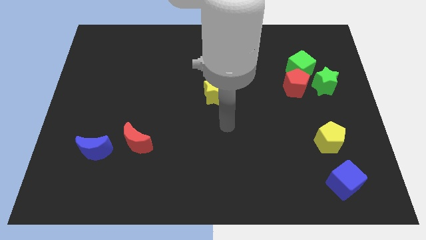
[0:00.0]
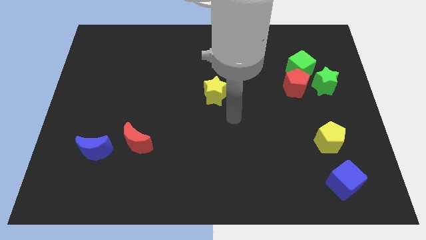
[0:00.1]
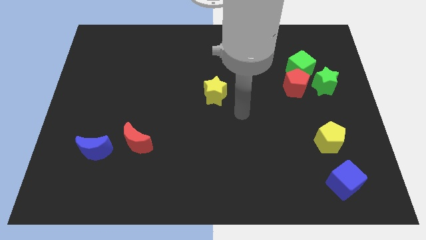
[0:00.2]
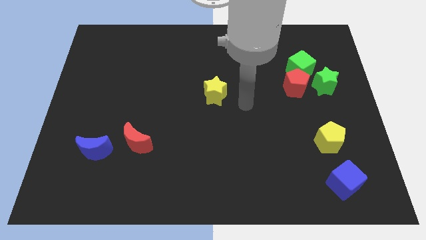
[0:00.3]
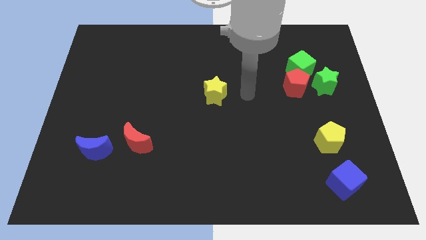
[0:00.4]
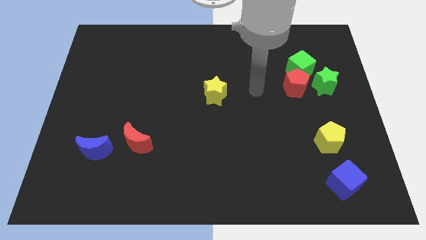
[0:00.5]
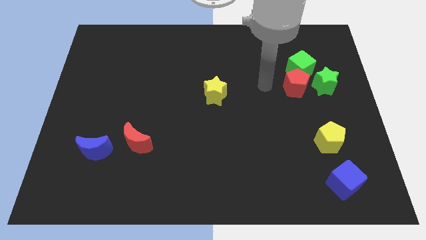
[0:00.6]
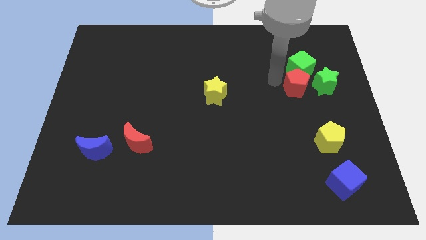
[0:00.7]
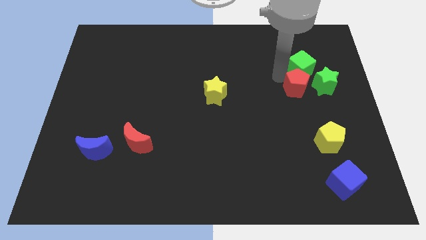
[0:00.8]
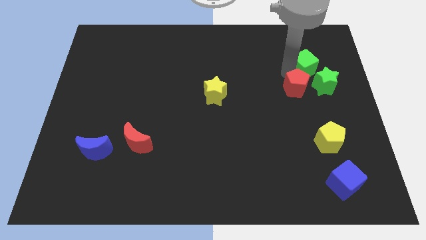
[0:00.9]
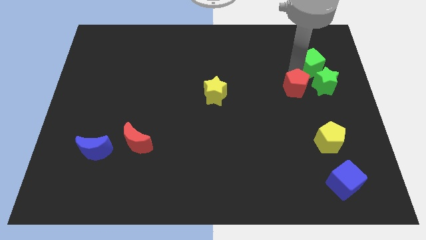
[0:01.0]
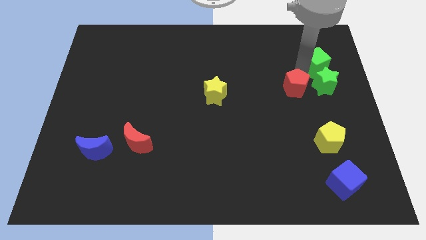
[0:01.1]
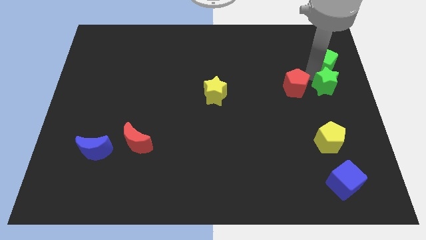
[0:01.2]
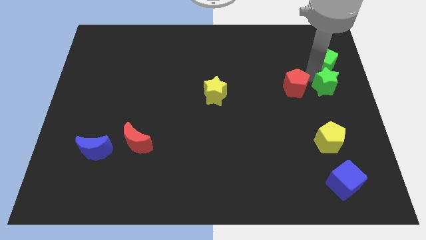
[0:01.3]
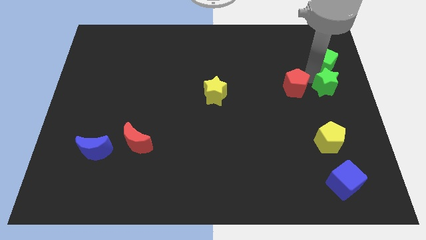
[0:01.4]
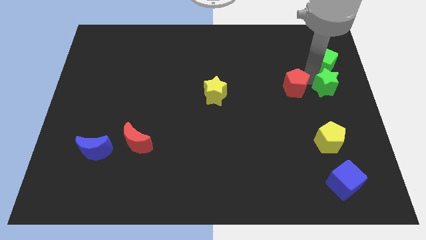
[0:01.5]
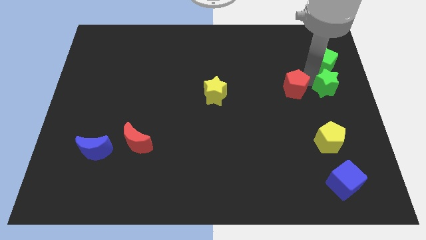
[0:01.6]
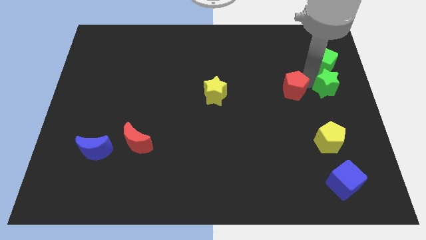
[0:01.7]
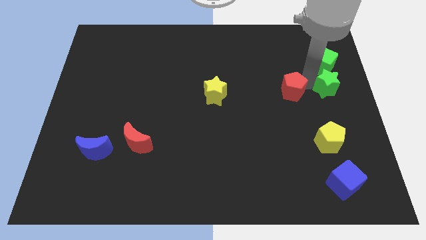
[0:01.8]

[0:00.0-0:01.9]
move the red pentagon away from the green cube and green star

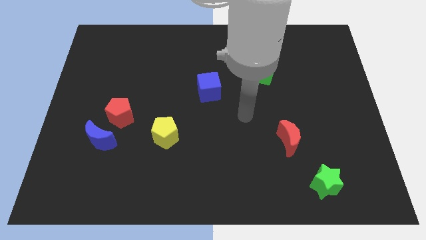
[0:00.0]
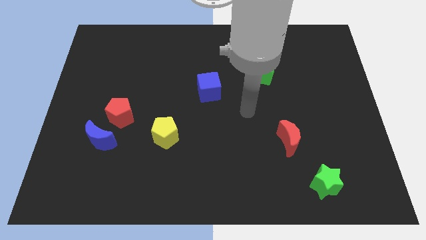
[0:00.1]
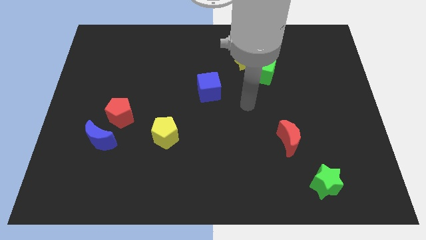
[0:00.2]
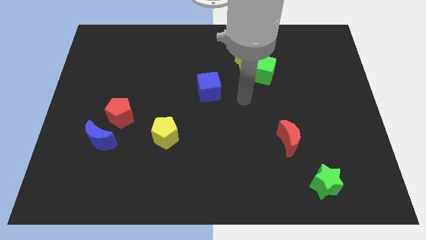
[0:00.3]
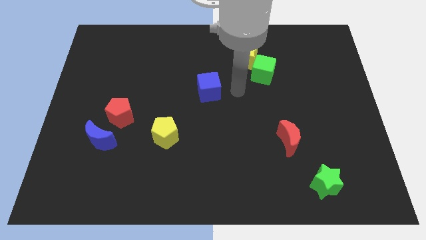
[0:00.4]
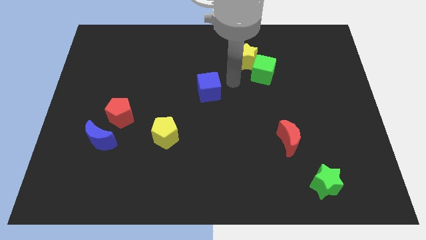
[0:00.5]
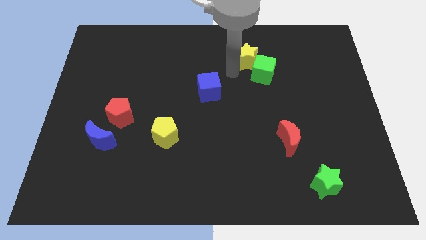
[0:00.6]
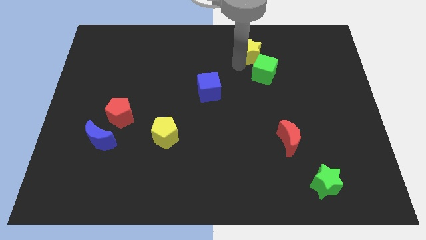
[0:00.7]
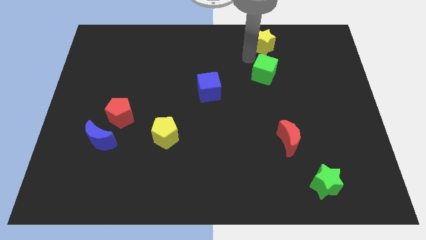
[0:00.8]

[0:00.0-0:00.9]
move the green cube away from the yellow star

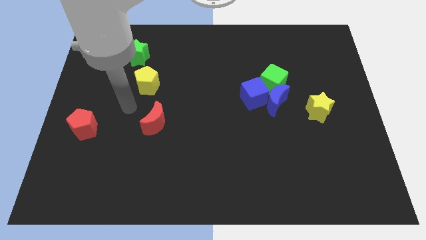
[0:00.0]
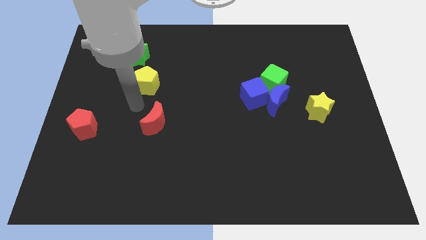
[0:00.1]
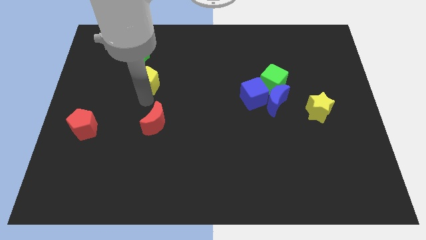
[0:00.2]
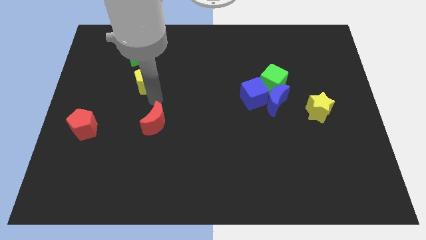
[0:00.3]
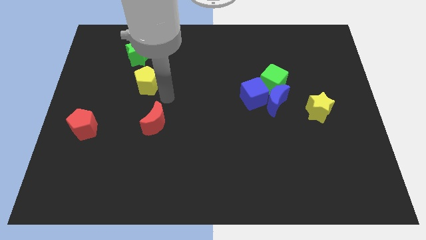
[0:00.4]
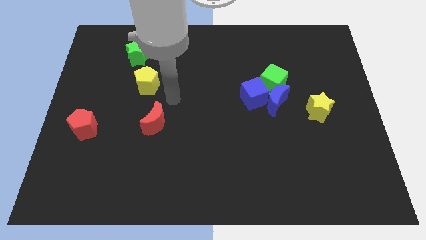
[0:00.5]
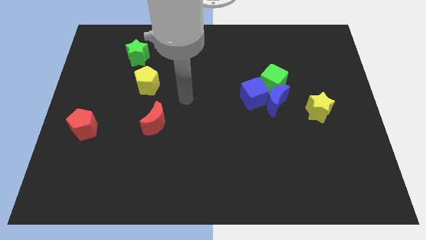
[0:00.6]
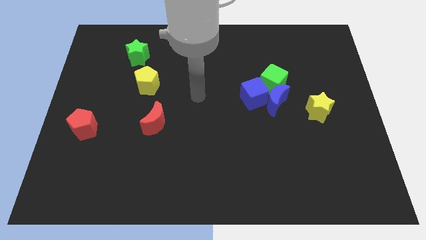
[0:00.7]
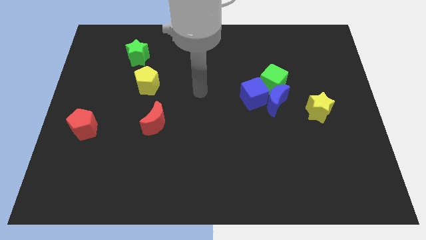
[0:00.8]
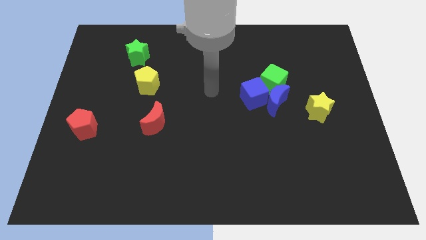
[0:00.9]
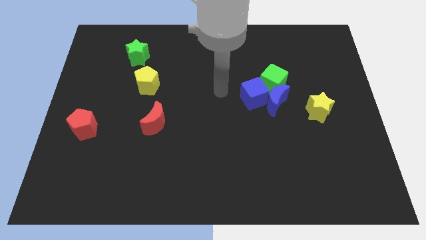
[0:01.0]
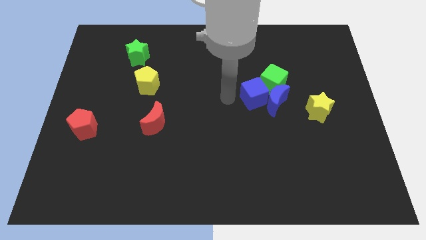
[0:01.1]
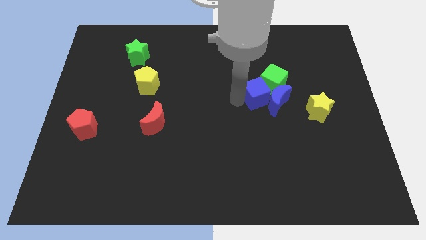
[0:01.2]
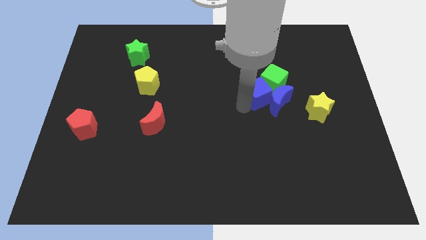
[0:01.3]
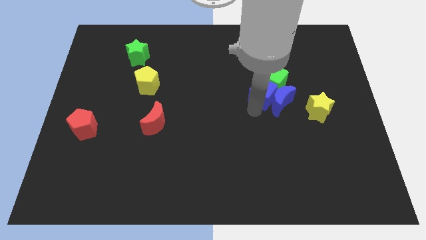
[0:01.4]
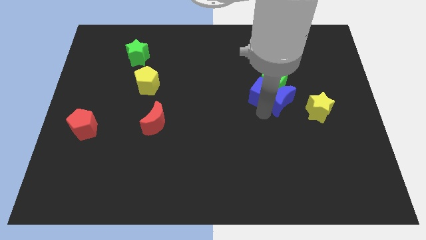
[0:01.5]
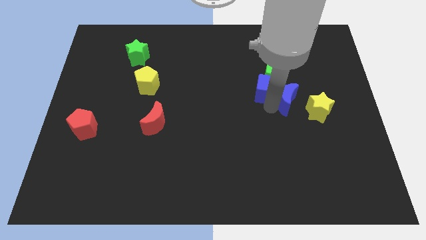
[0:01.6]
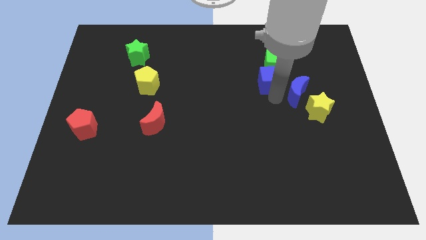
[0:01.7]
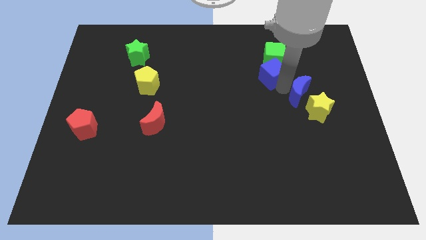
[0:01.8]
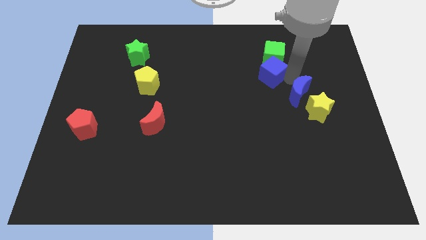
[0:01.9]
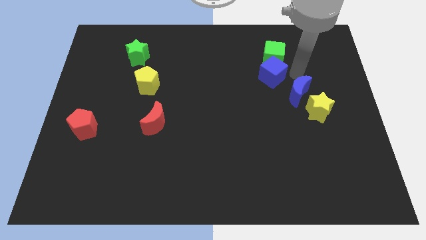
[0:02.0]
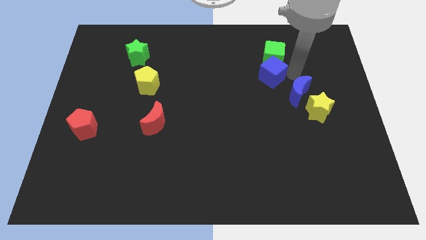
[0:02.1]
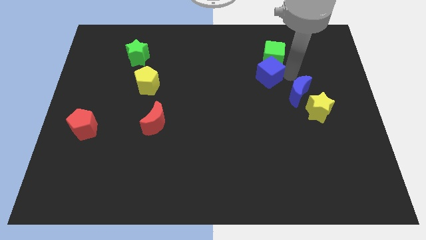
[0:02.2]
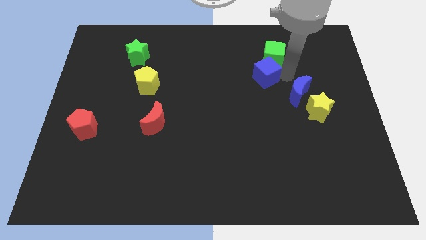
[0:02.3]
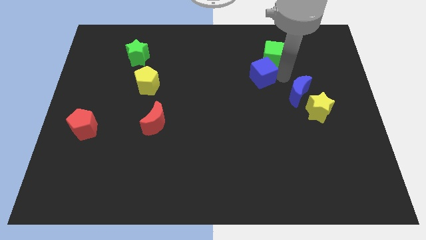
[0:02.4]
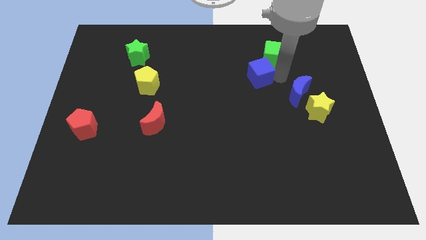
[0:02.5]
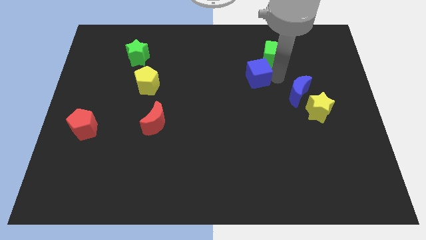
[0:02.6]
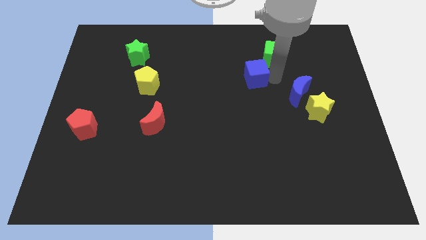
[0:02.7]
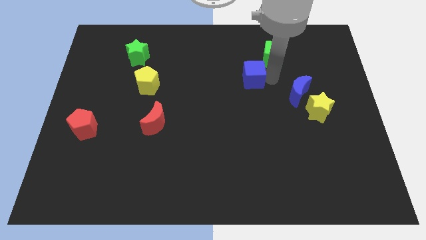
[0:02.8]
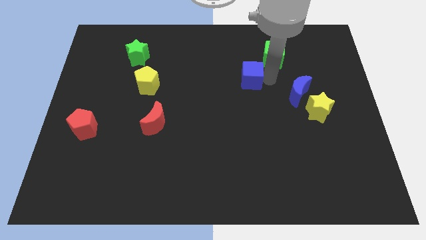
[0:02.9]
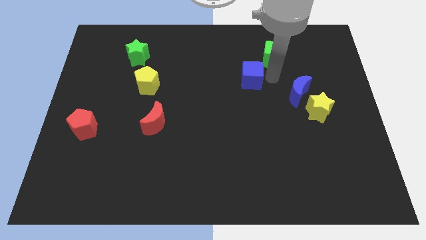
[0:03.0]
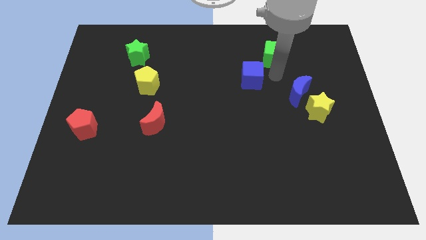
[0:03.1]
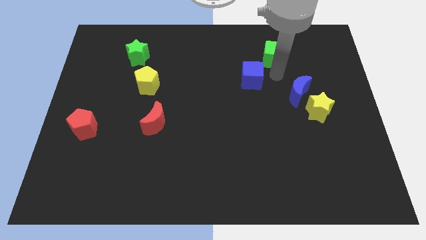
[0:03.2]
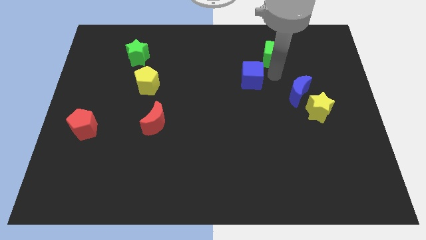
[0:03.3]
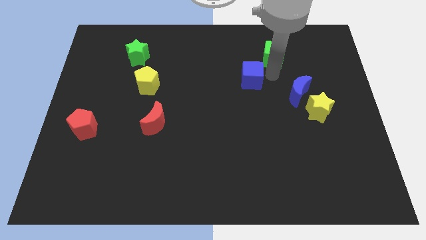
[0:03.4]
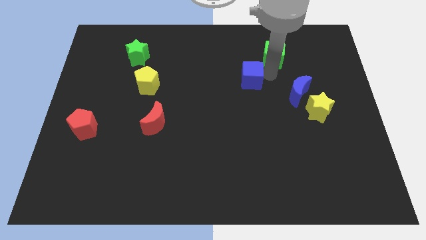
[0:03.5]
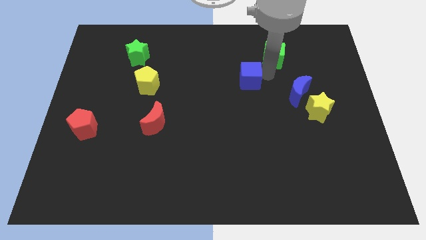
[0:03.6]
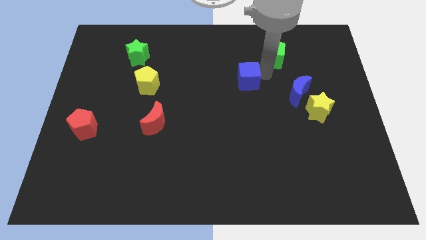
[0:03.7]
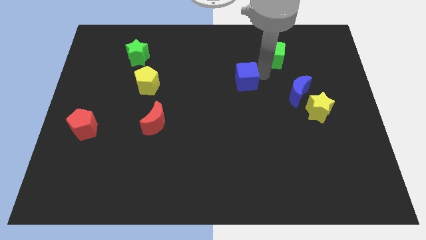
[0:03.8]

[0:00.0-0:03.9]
separate the blue cube from the blue moon and green cube

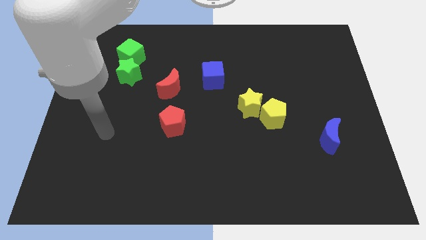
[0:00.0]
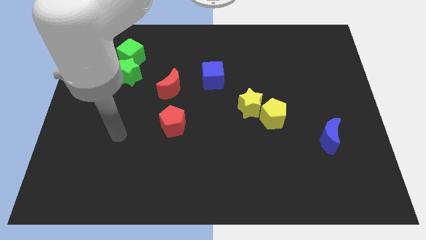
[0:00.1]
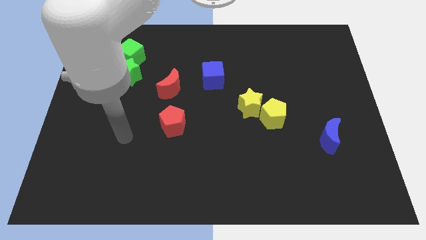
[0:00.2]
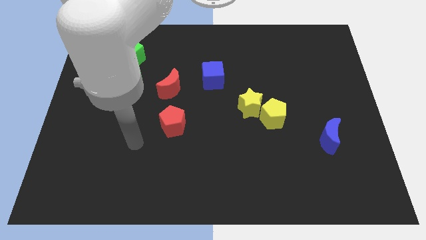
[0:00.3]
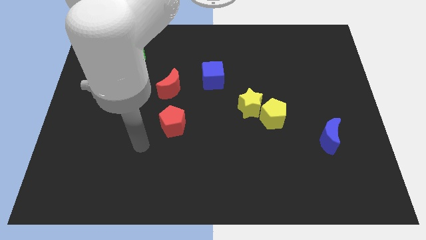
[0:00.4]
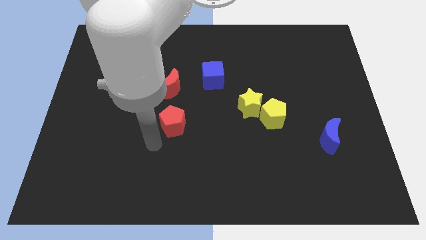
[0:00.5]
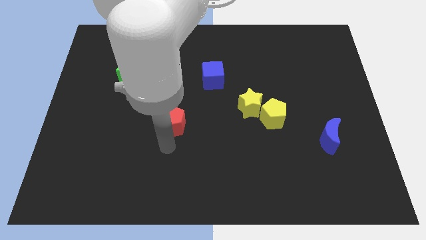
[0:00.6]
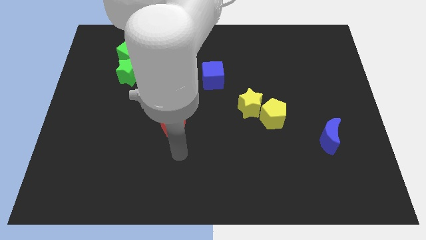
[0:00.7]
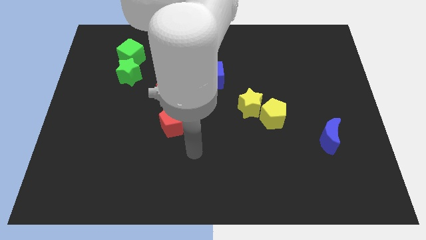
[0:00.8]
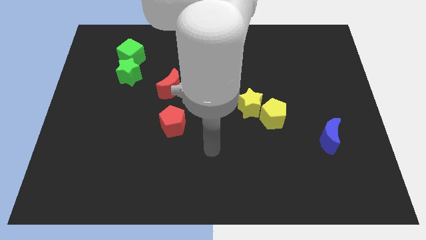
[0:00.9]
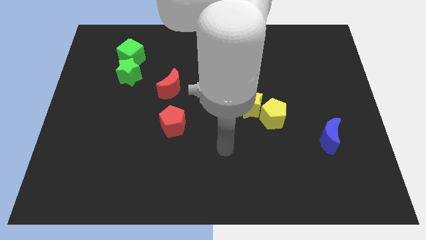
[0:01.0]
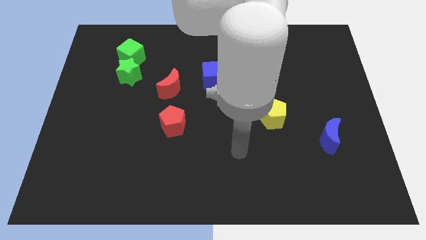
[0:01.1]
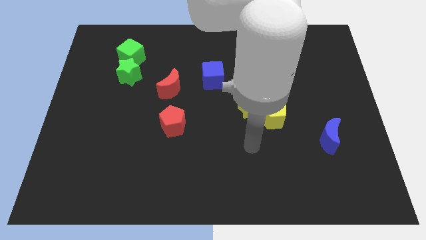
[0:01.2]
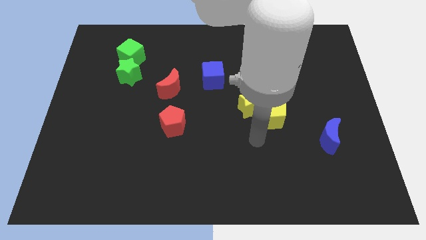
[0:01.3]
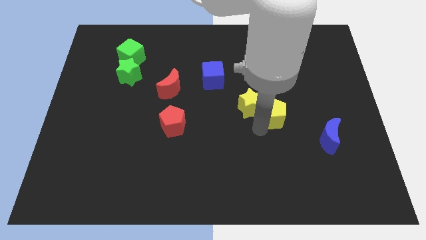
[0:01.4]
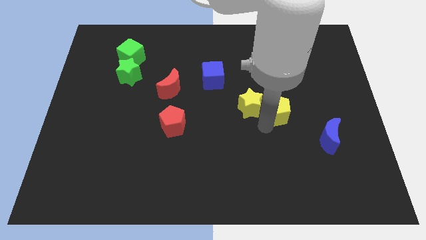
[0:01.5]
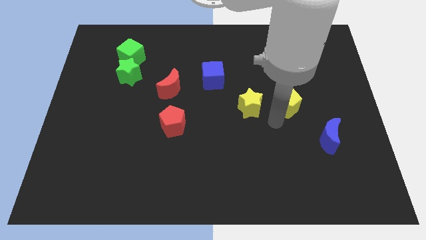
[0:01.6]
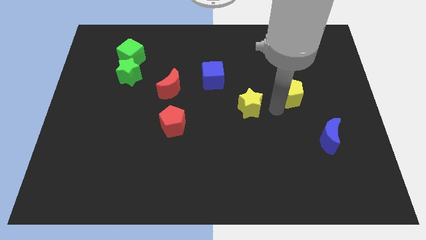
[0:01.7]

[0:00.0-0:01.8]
separate the yellow star from the yellow pentagon

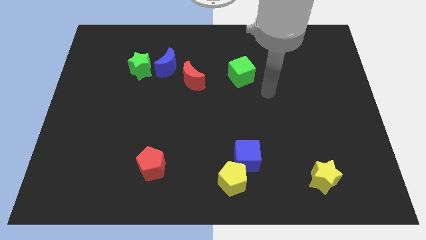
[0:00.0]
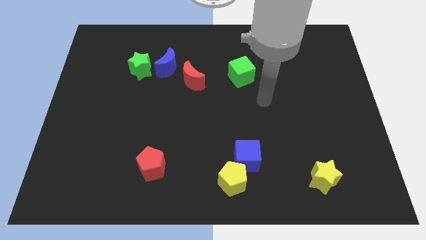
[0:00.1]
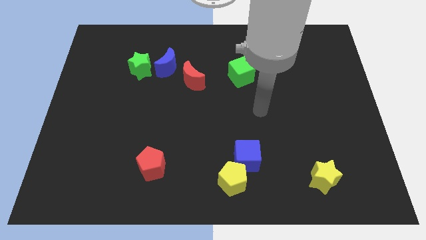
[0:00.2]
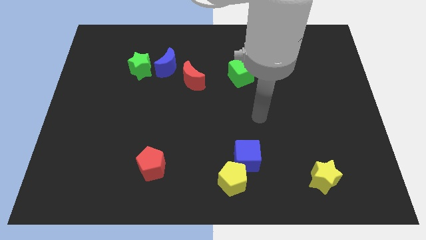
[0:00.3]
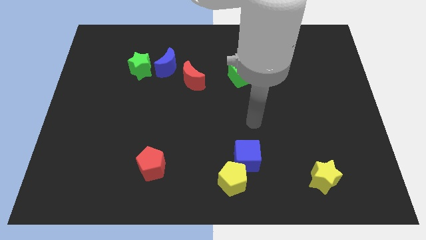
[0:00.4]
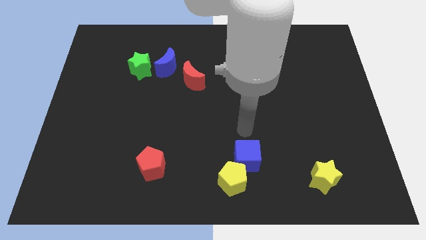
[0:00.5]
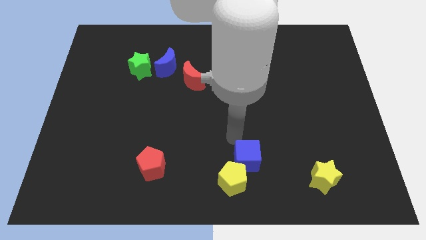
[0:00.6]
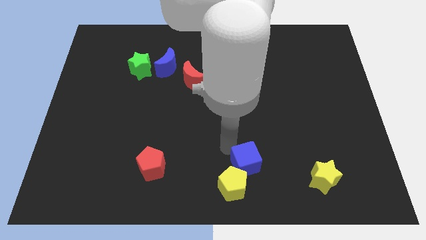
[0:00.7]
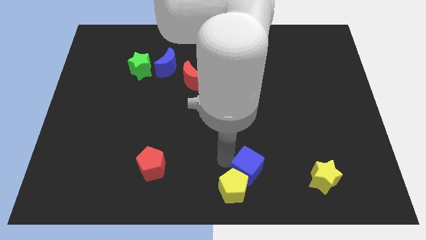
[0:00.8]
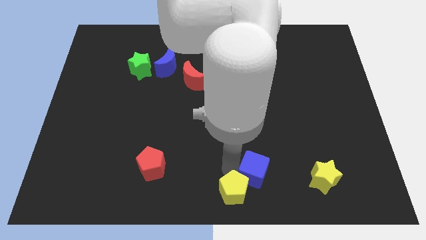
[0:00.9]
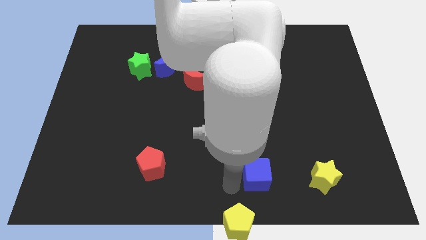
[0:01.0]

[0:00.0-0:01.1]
pull the blue cube apart from the yellow pentagon
